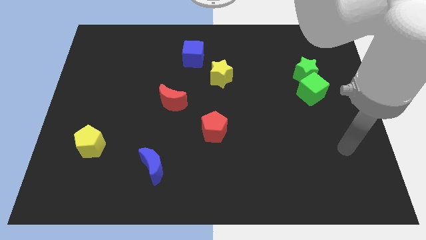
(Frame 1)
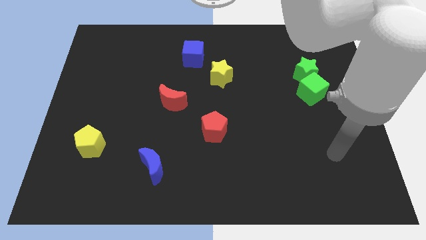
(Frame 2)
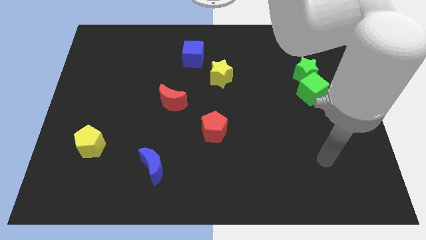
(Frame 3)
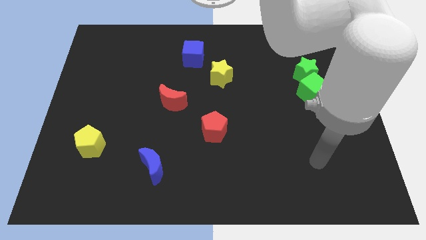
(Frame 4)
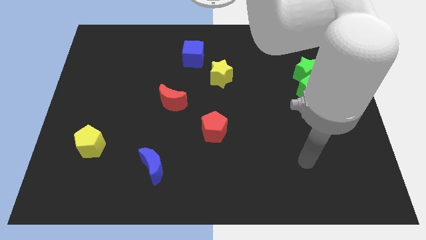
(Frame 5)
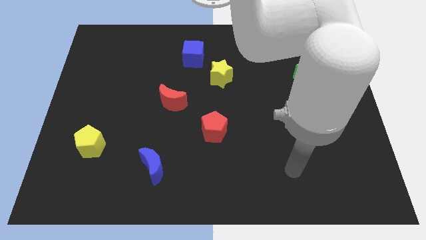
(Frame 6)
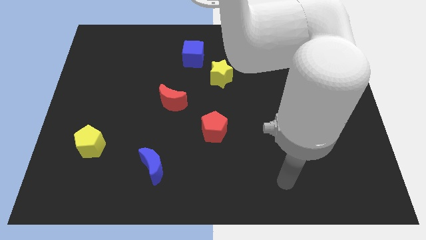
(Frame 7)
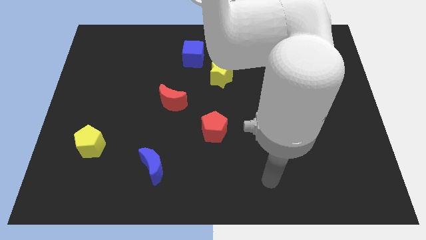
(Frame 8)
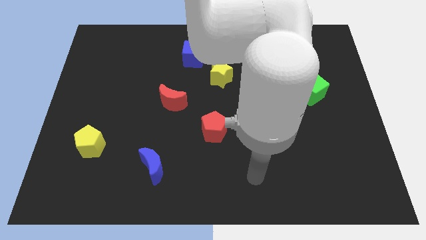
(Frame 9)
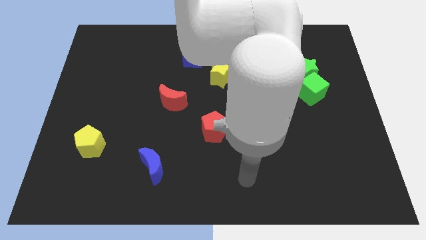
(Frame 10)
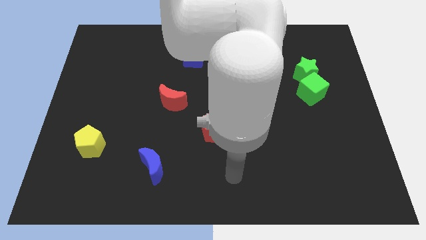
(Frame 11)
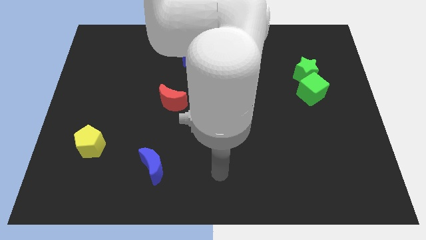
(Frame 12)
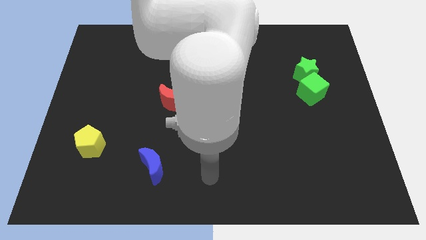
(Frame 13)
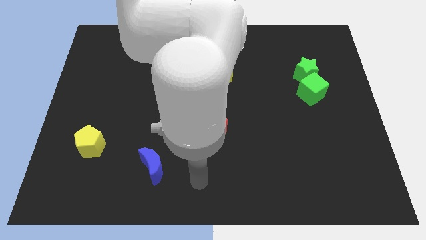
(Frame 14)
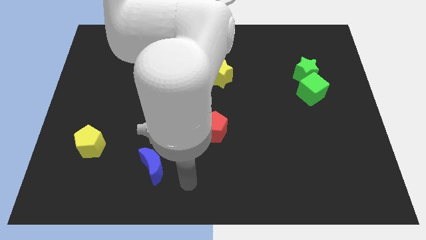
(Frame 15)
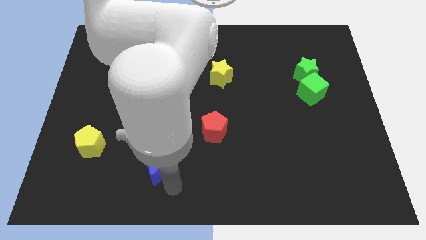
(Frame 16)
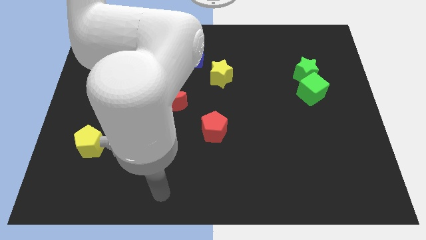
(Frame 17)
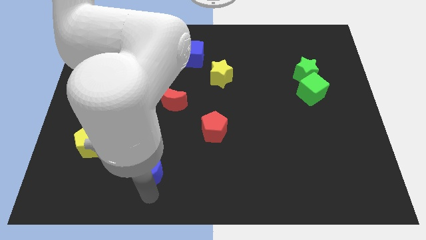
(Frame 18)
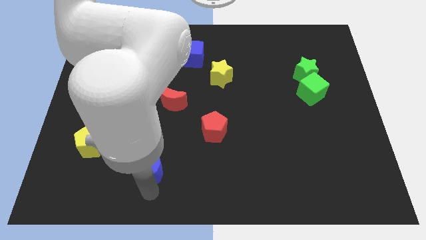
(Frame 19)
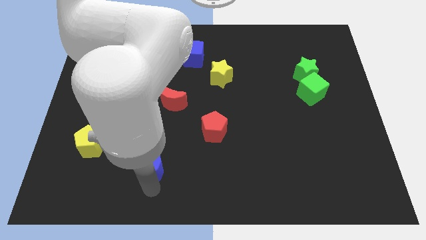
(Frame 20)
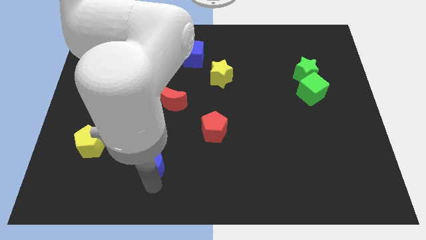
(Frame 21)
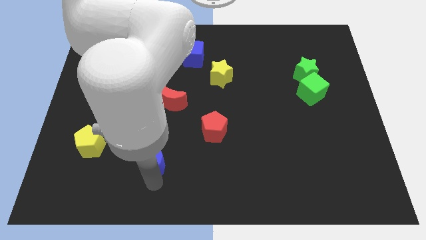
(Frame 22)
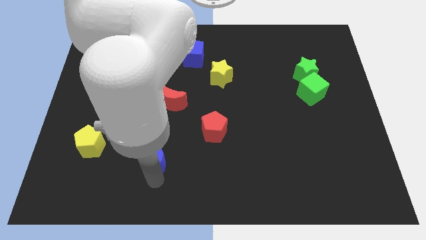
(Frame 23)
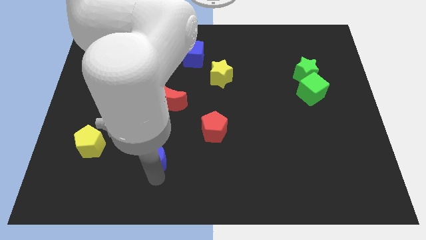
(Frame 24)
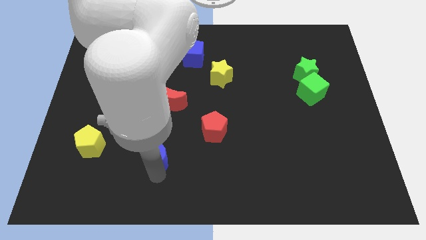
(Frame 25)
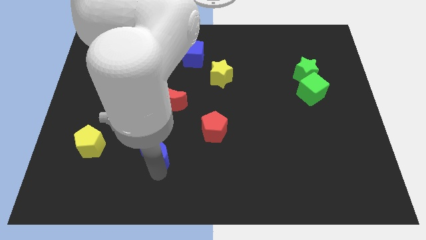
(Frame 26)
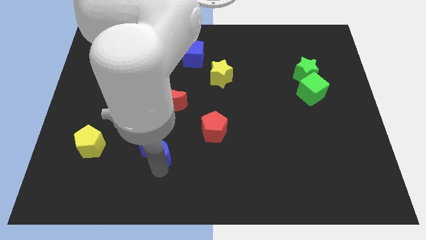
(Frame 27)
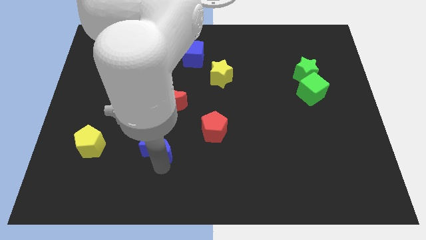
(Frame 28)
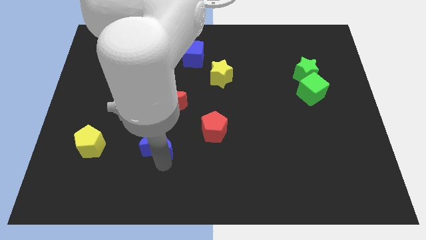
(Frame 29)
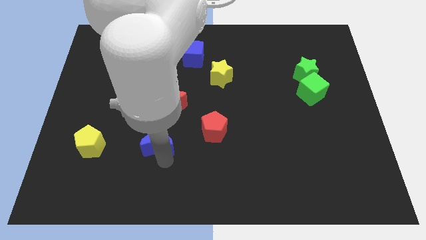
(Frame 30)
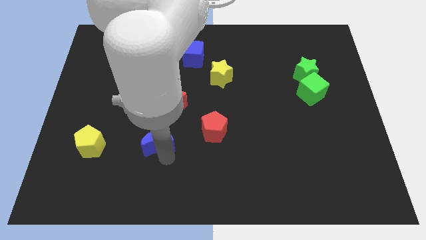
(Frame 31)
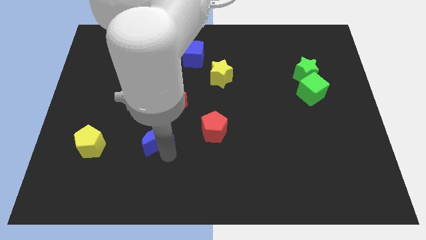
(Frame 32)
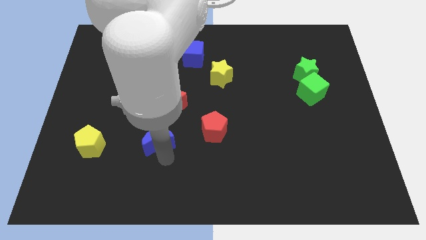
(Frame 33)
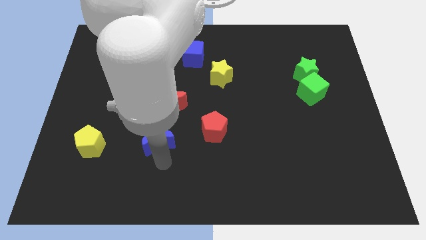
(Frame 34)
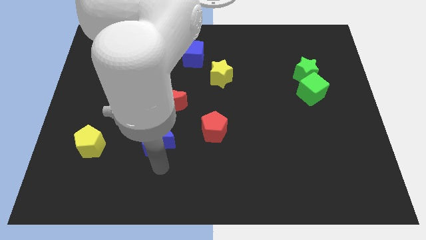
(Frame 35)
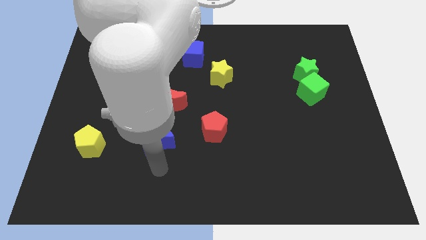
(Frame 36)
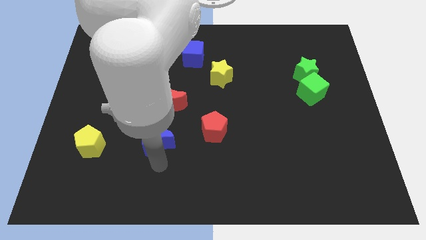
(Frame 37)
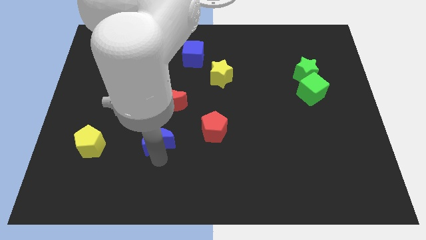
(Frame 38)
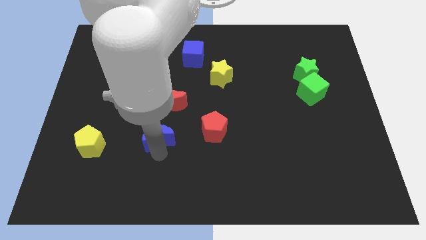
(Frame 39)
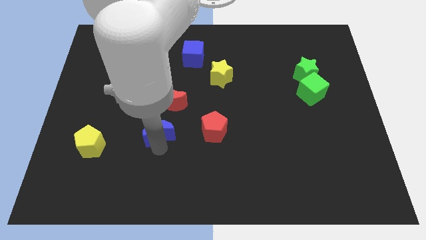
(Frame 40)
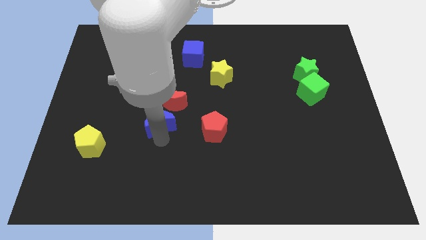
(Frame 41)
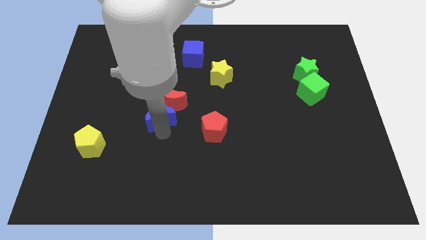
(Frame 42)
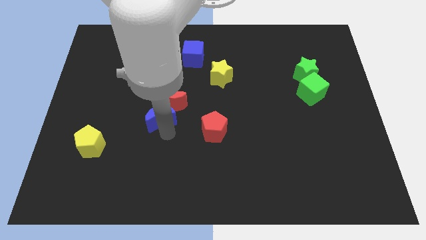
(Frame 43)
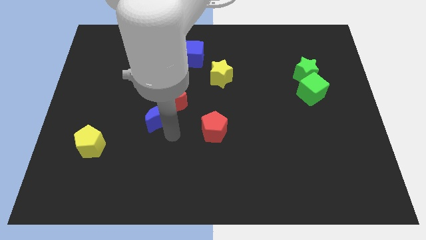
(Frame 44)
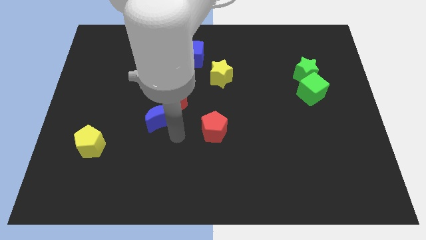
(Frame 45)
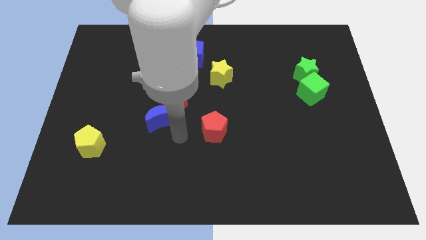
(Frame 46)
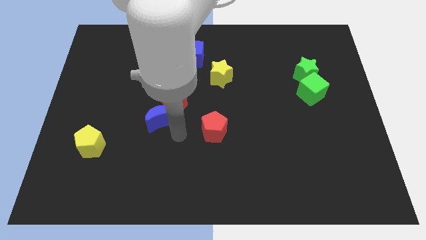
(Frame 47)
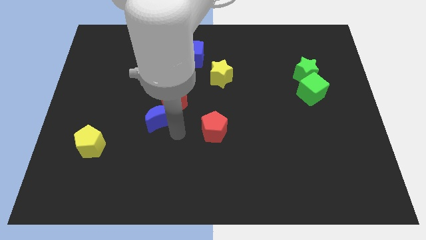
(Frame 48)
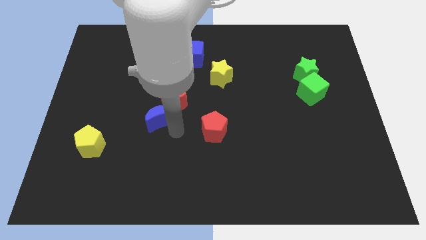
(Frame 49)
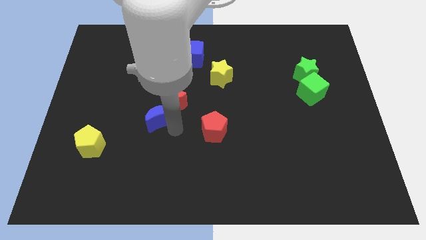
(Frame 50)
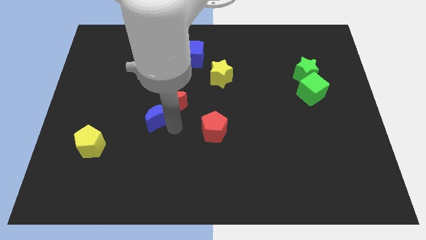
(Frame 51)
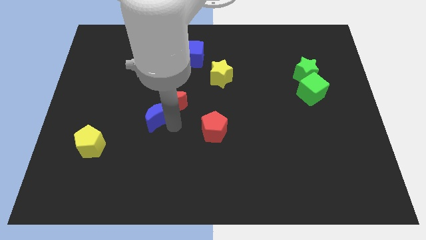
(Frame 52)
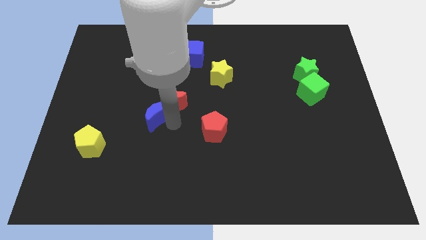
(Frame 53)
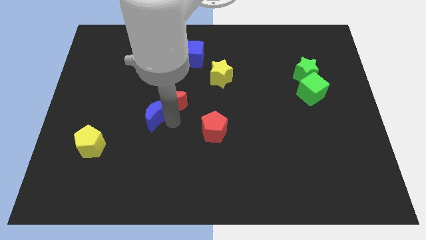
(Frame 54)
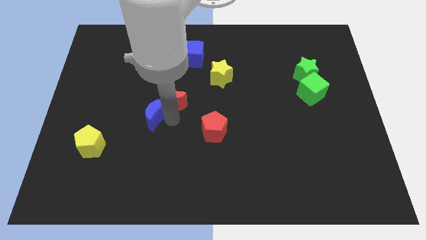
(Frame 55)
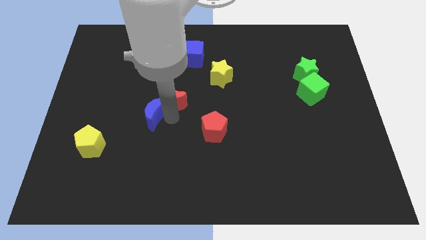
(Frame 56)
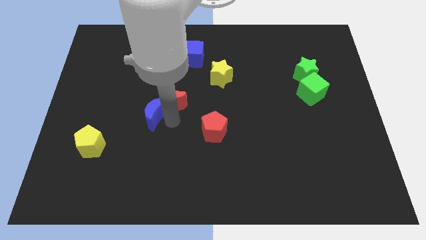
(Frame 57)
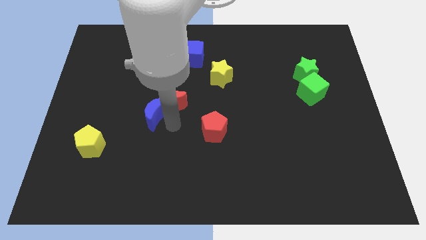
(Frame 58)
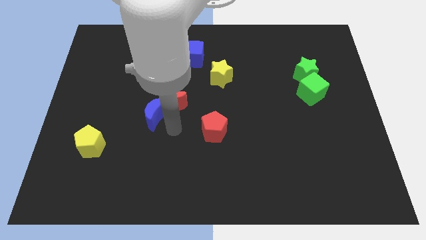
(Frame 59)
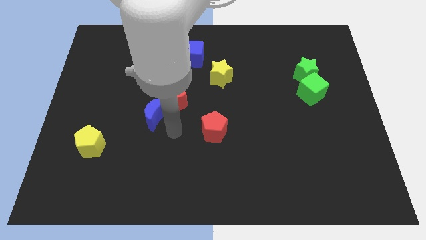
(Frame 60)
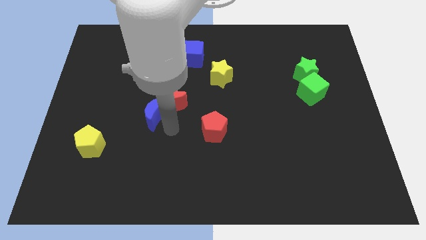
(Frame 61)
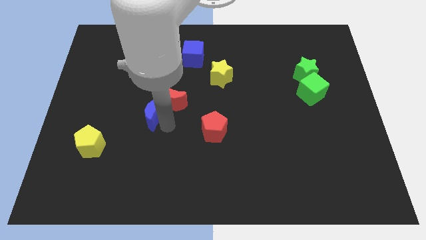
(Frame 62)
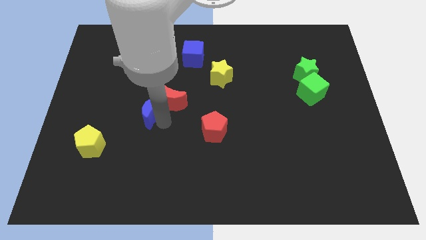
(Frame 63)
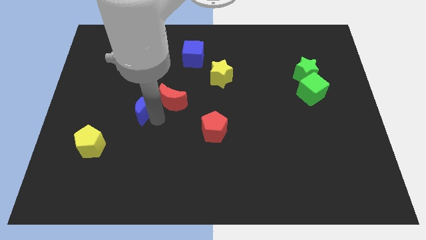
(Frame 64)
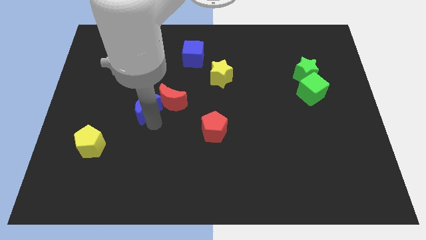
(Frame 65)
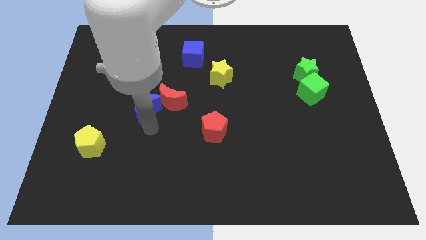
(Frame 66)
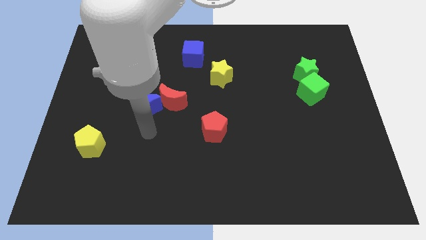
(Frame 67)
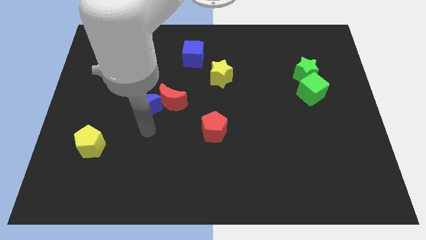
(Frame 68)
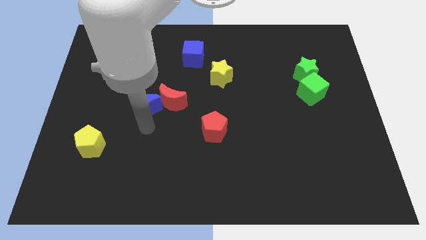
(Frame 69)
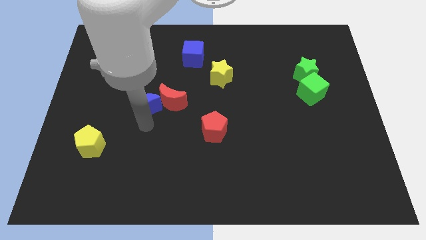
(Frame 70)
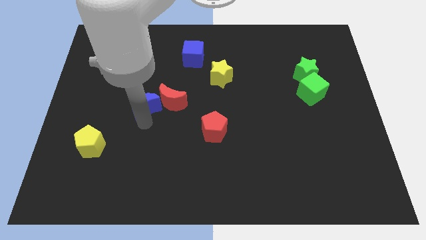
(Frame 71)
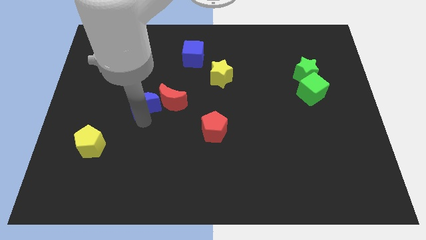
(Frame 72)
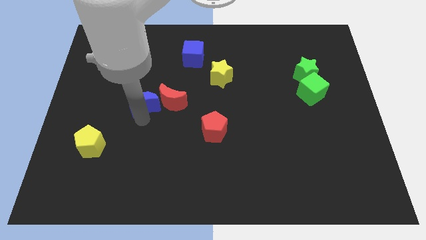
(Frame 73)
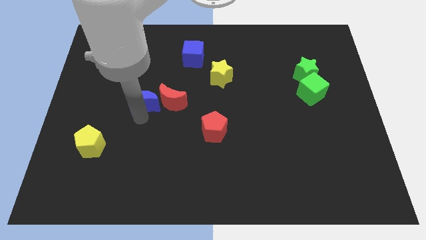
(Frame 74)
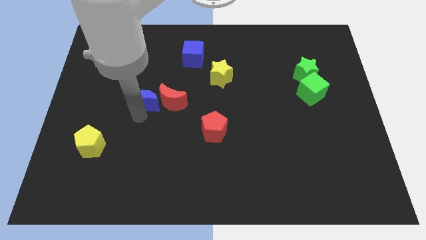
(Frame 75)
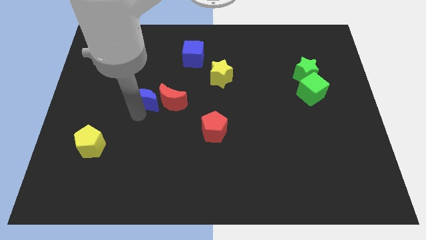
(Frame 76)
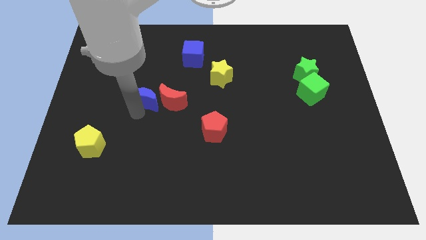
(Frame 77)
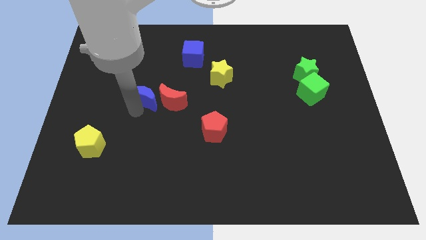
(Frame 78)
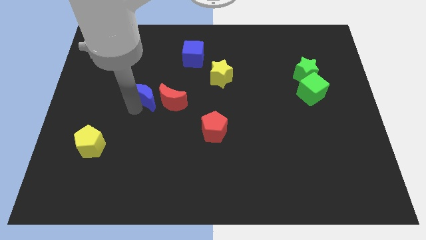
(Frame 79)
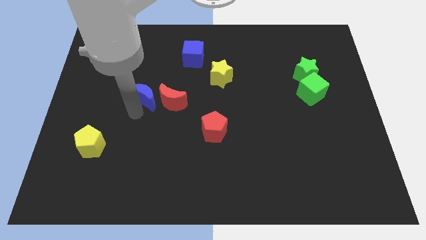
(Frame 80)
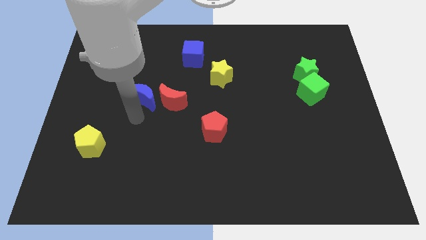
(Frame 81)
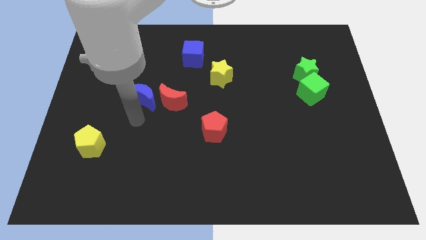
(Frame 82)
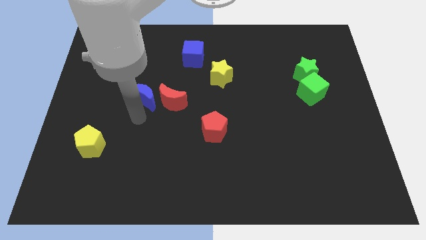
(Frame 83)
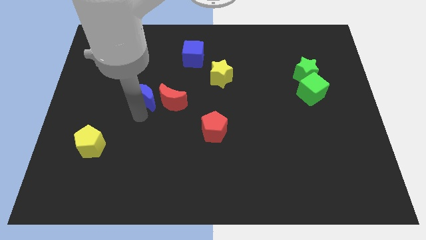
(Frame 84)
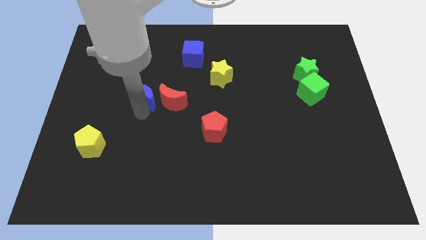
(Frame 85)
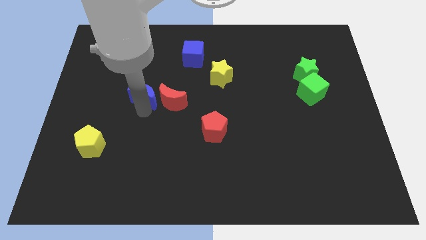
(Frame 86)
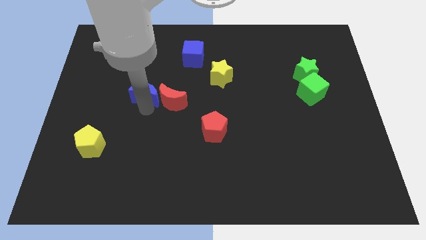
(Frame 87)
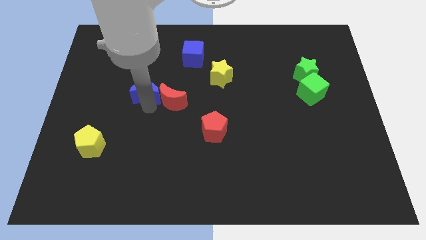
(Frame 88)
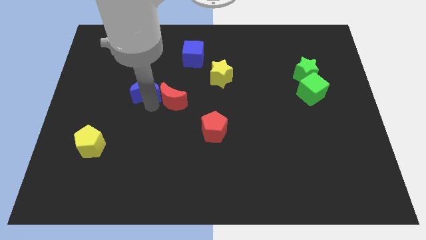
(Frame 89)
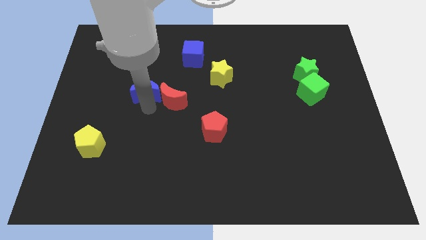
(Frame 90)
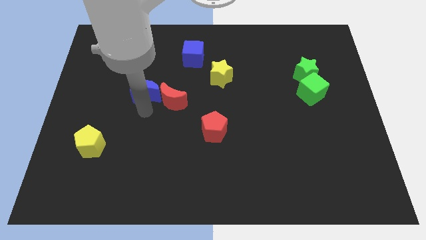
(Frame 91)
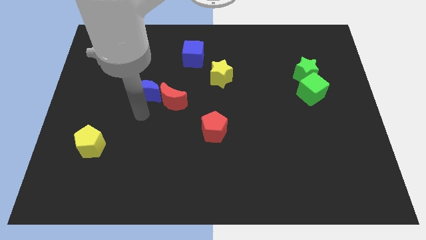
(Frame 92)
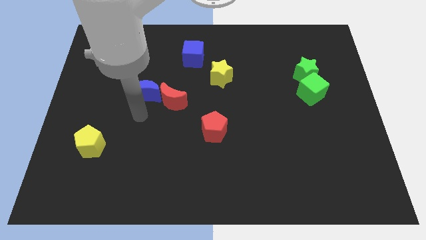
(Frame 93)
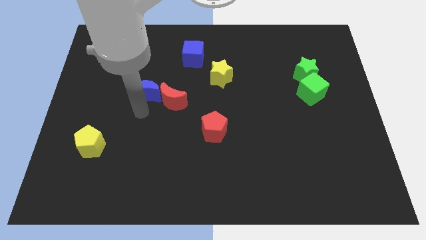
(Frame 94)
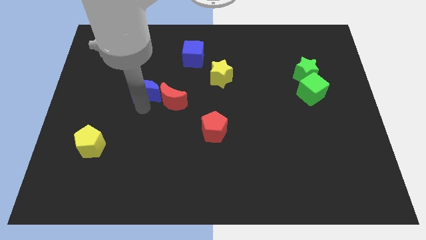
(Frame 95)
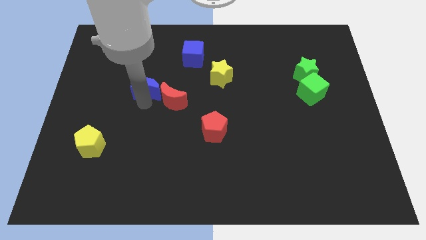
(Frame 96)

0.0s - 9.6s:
move the blue moon up
